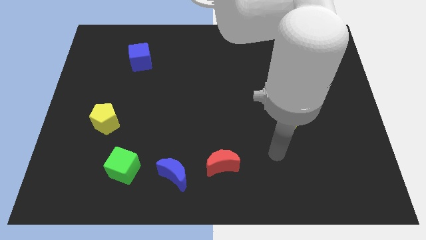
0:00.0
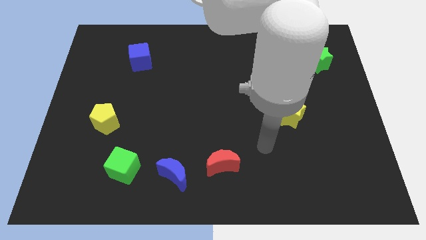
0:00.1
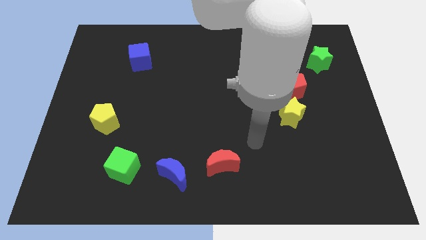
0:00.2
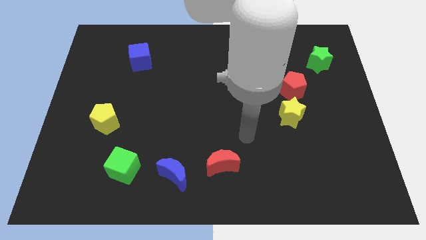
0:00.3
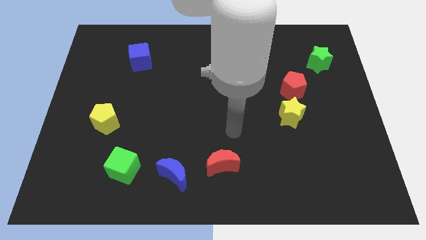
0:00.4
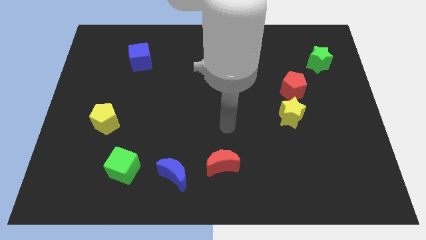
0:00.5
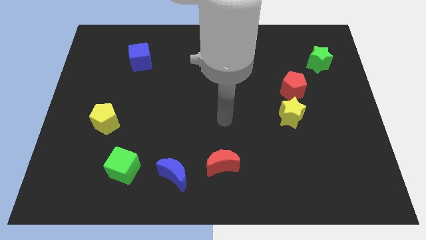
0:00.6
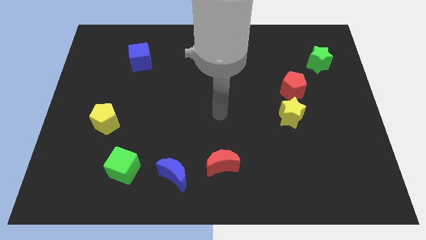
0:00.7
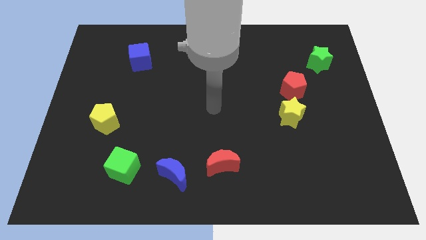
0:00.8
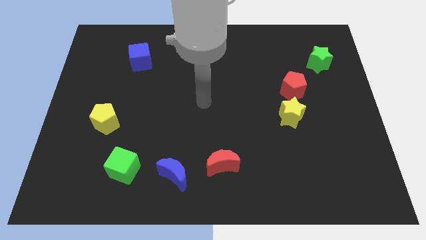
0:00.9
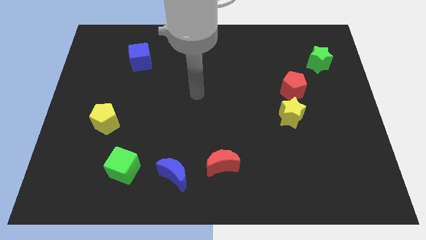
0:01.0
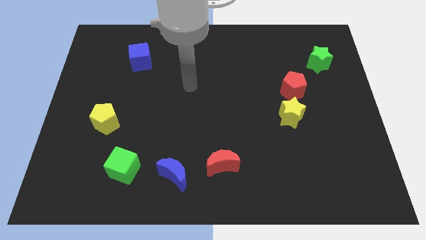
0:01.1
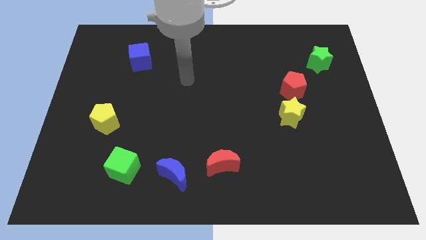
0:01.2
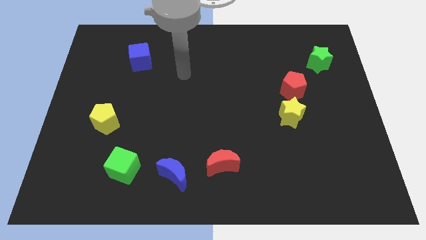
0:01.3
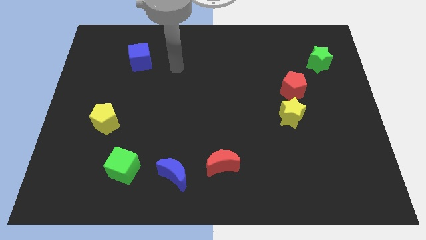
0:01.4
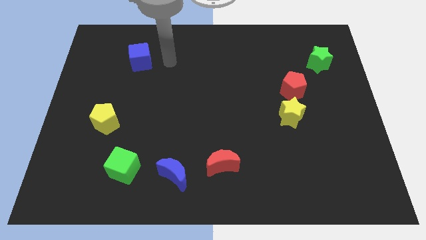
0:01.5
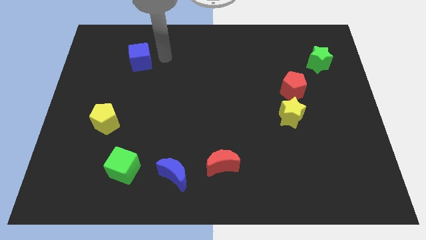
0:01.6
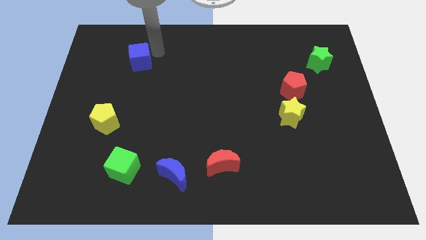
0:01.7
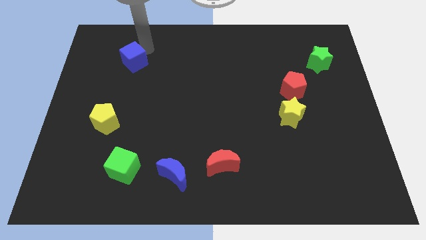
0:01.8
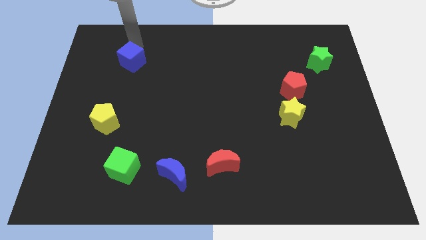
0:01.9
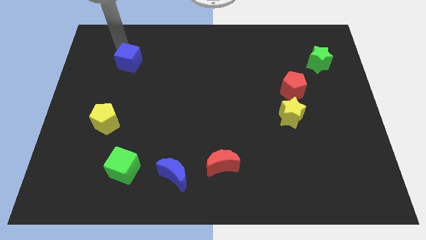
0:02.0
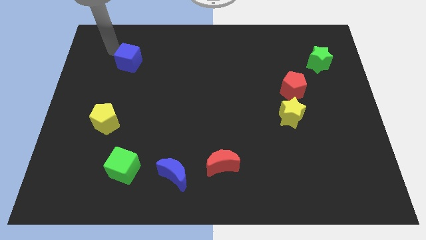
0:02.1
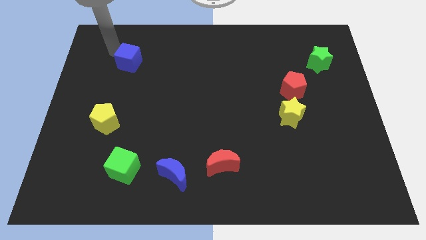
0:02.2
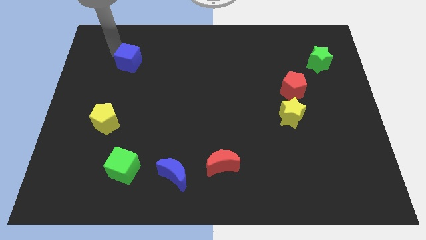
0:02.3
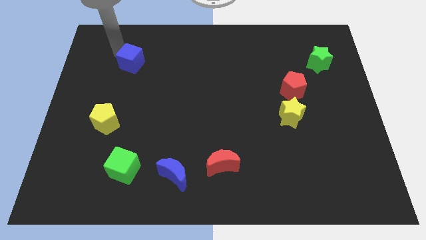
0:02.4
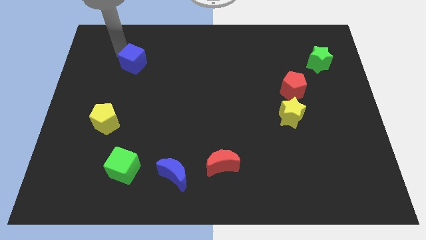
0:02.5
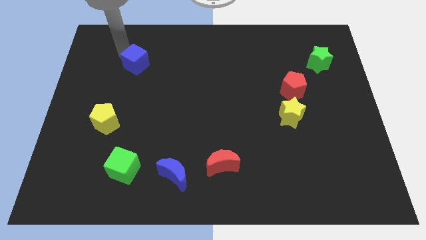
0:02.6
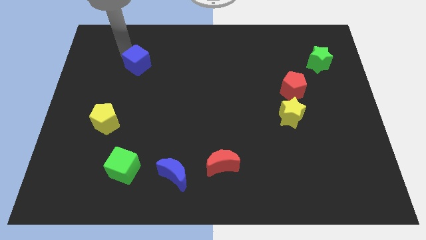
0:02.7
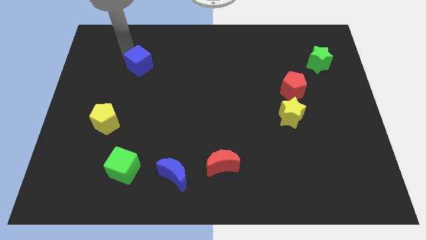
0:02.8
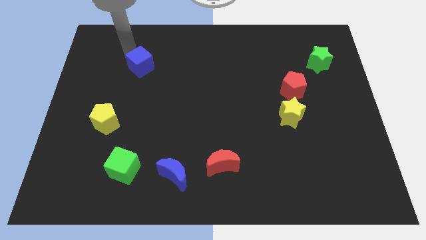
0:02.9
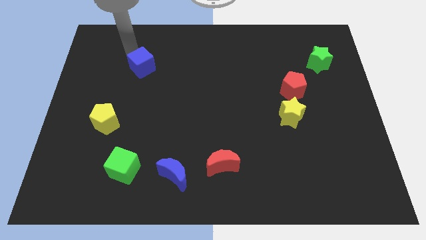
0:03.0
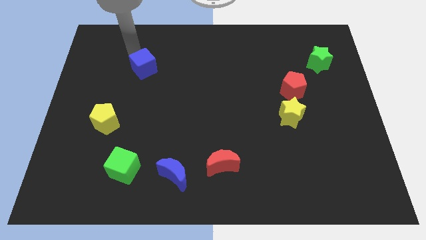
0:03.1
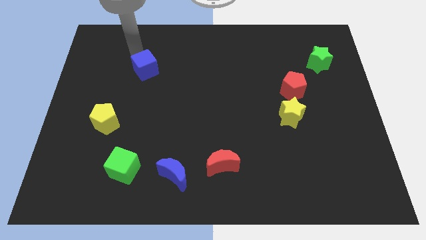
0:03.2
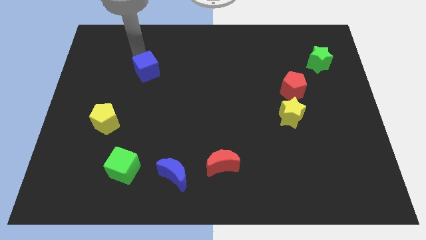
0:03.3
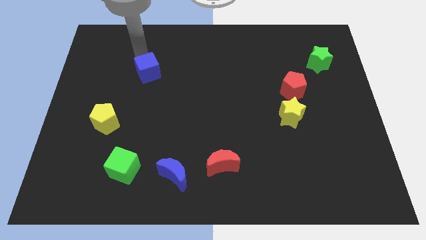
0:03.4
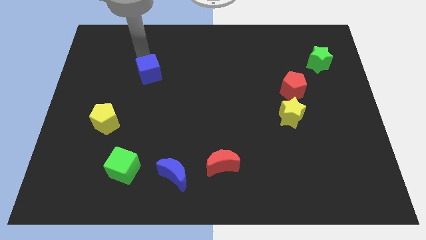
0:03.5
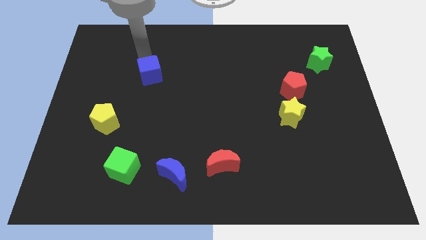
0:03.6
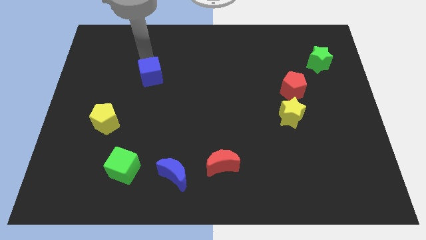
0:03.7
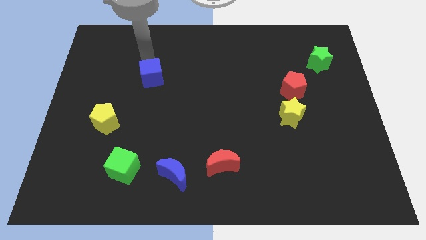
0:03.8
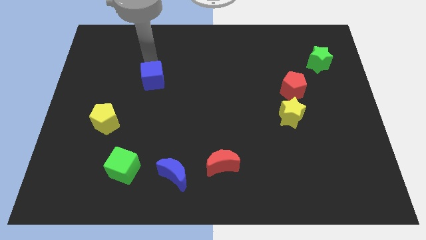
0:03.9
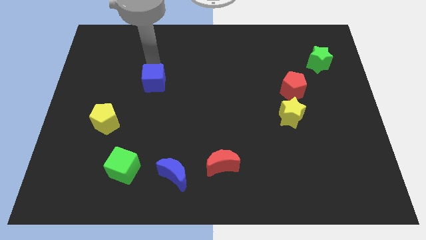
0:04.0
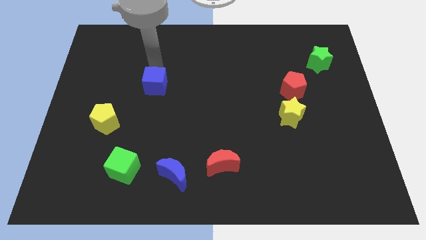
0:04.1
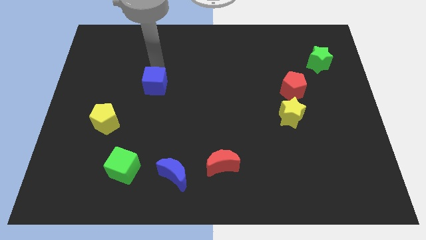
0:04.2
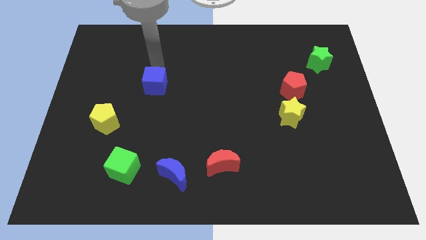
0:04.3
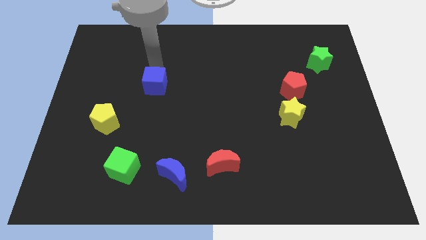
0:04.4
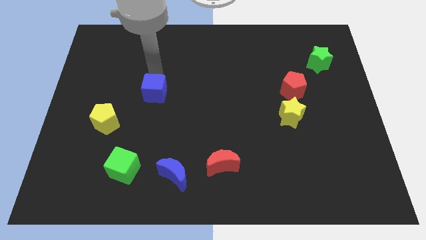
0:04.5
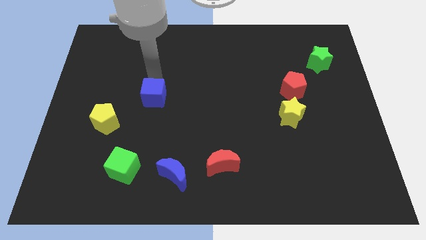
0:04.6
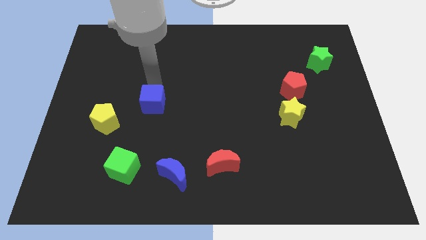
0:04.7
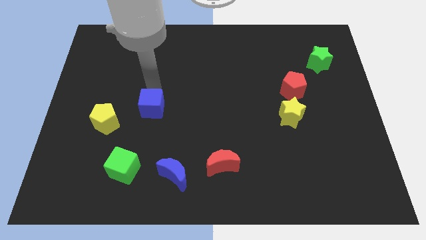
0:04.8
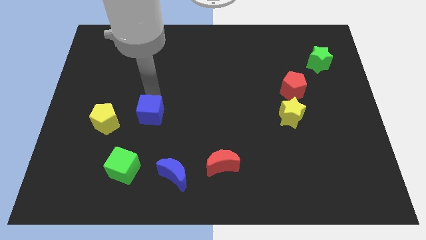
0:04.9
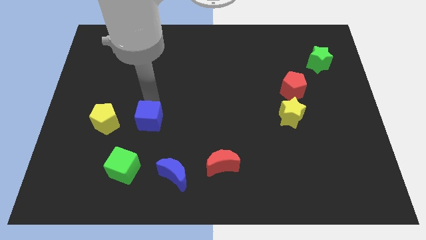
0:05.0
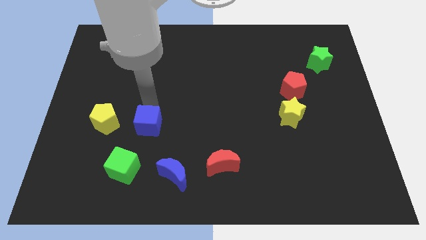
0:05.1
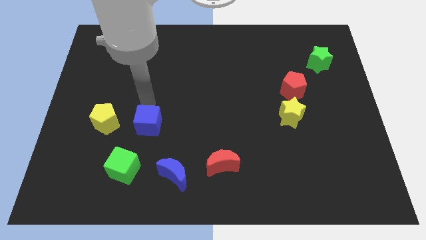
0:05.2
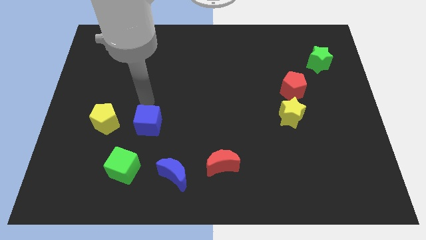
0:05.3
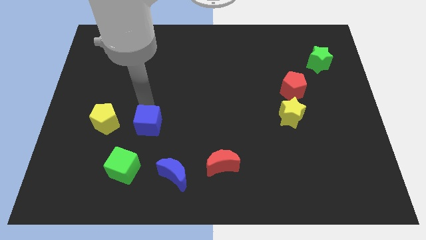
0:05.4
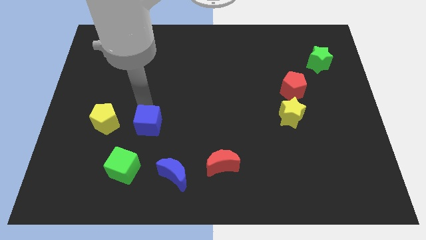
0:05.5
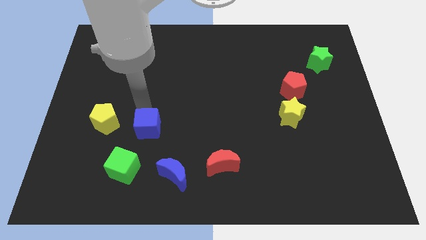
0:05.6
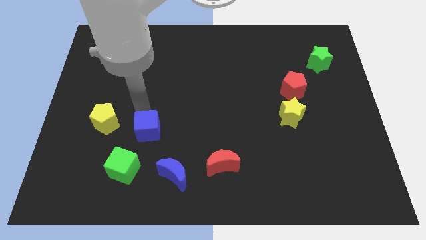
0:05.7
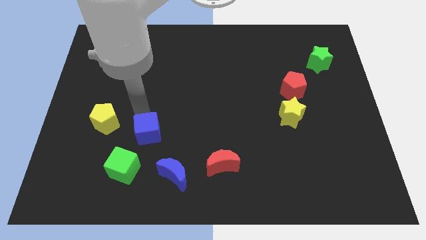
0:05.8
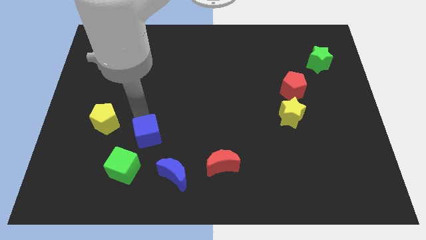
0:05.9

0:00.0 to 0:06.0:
move the blue cube to the top left side of the blue moon
